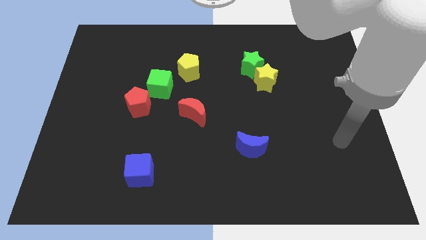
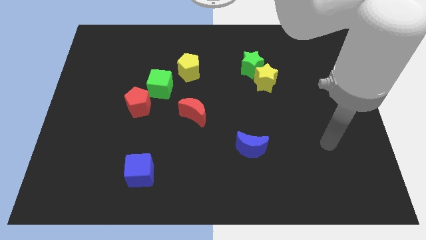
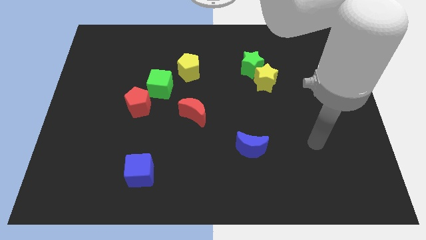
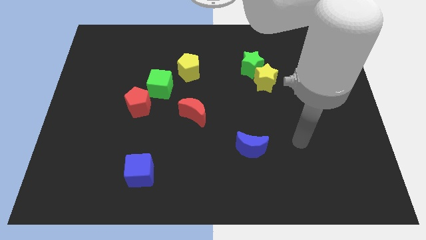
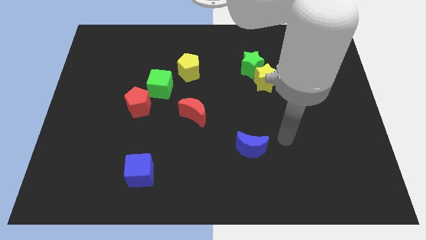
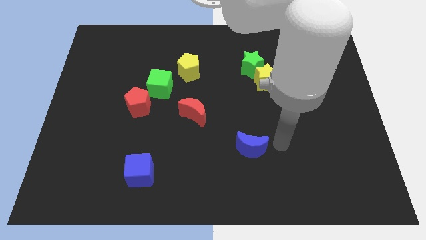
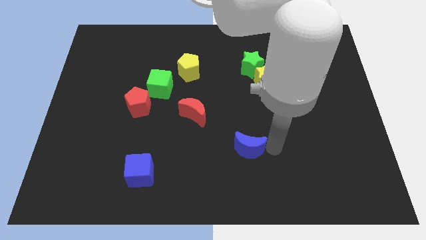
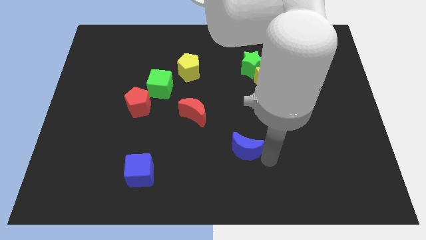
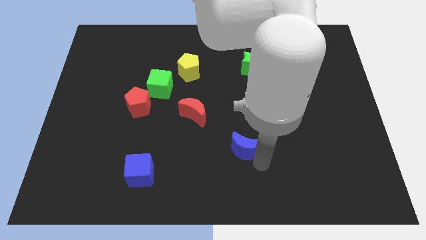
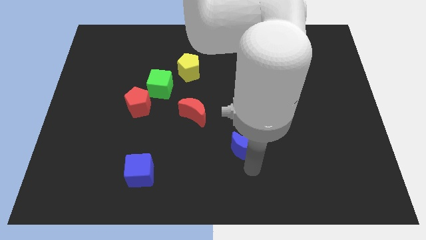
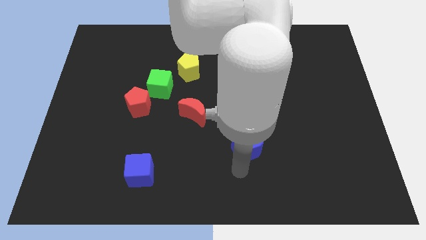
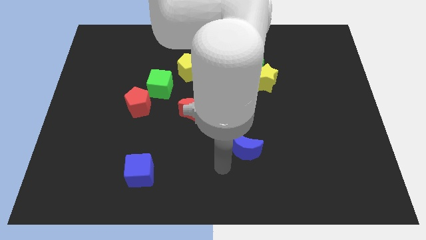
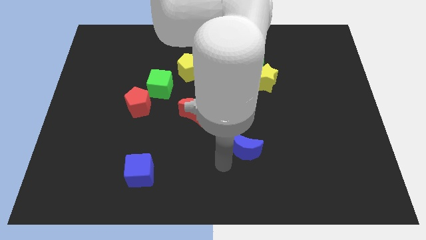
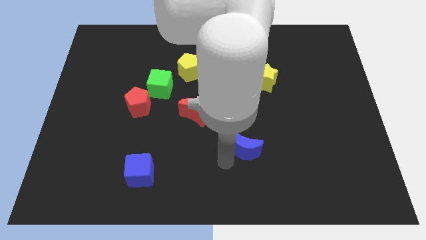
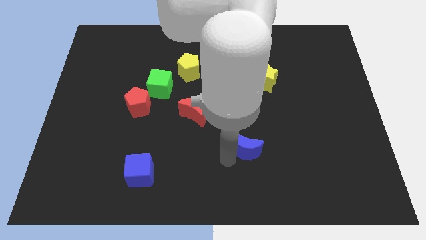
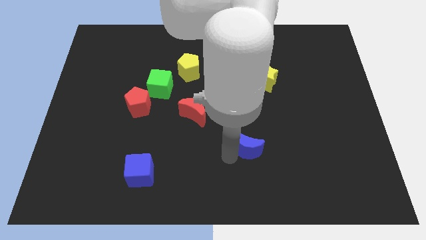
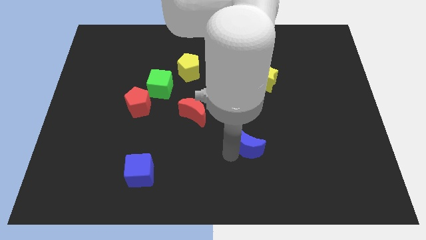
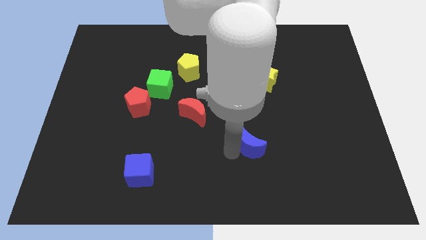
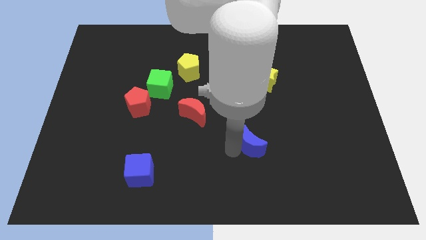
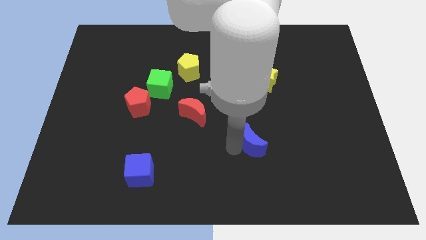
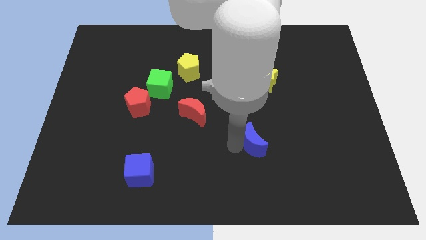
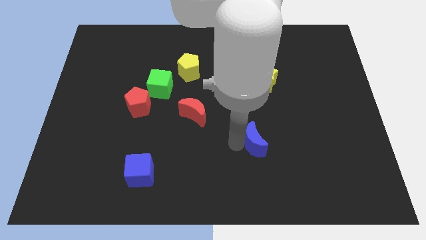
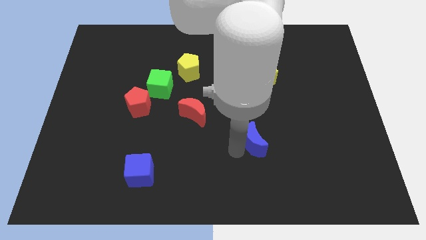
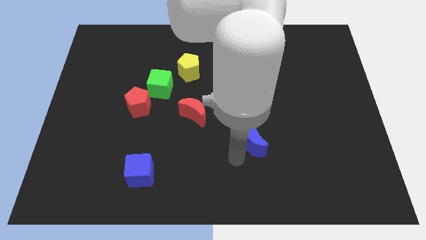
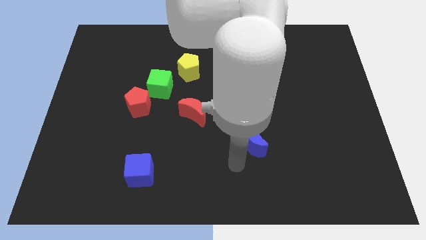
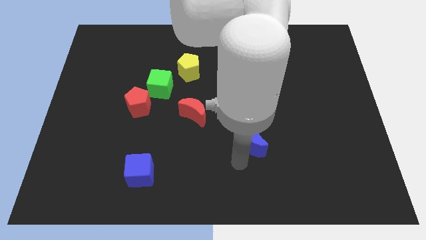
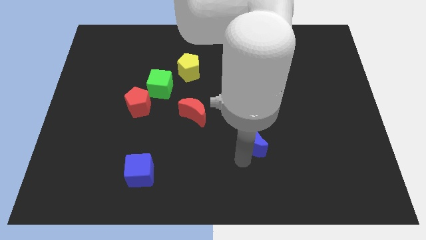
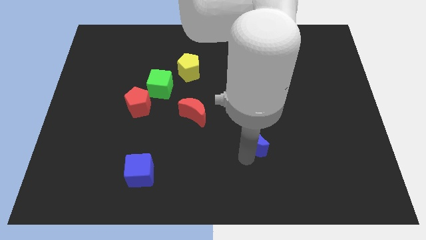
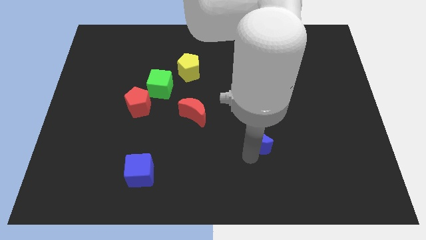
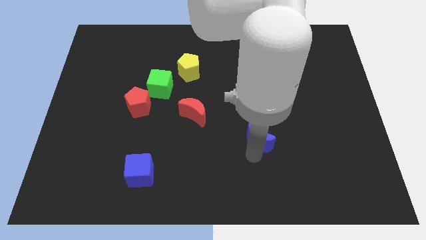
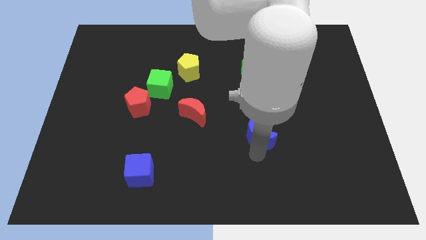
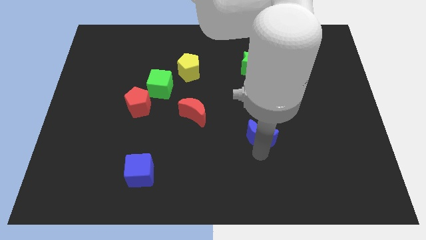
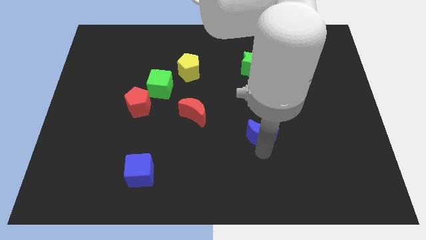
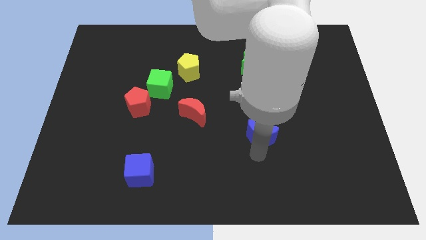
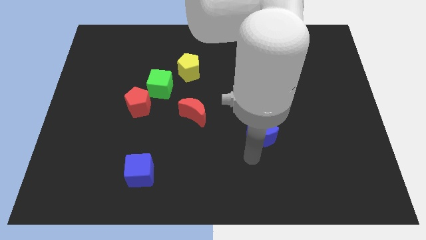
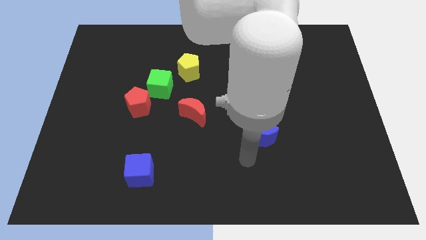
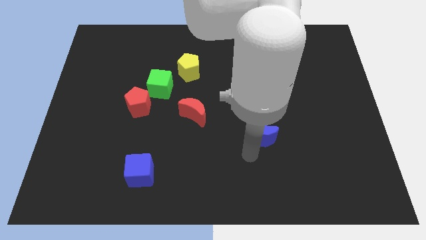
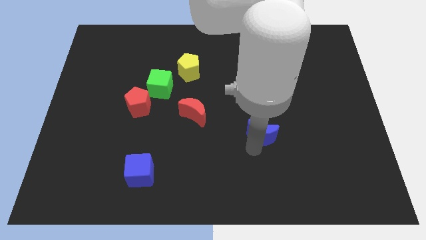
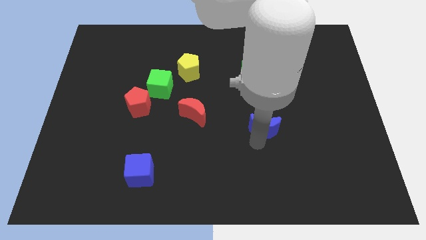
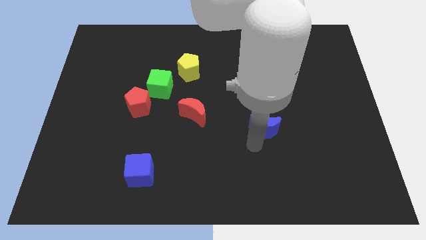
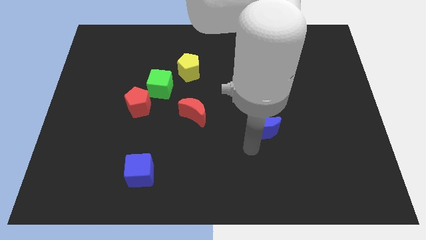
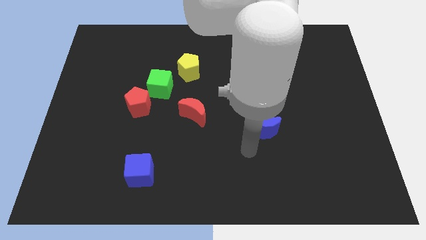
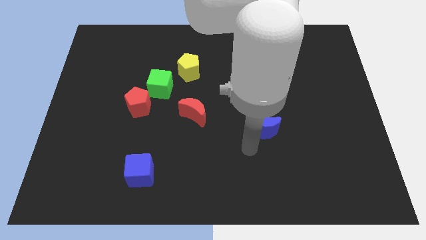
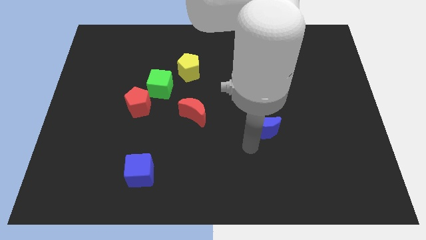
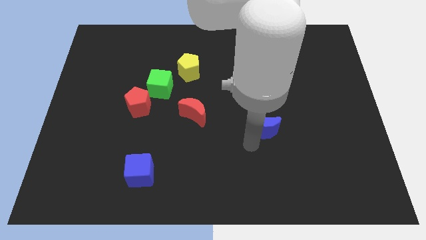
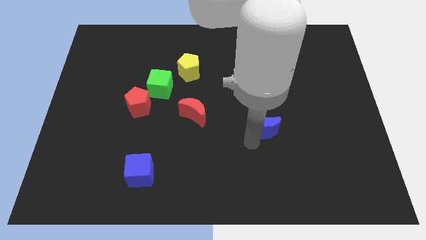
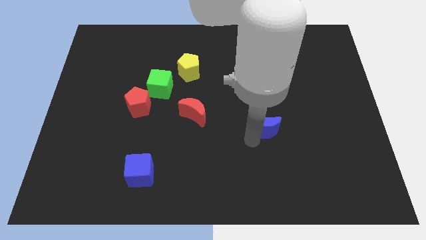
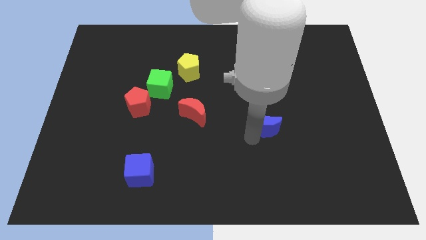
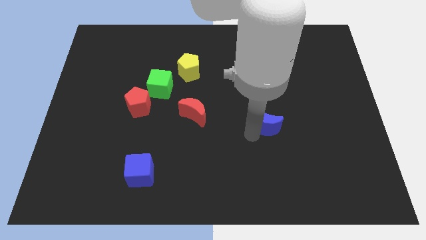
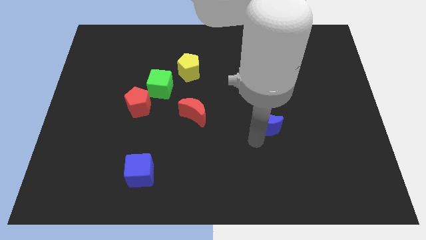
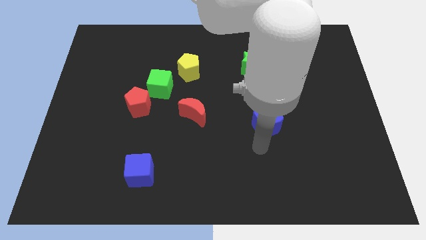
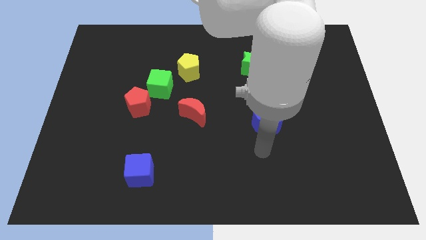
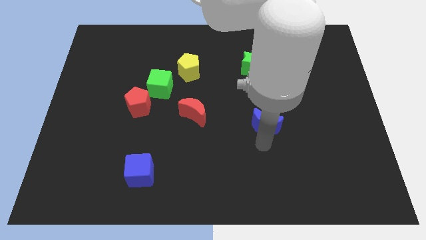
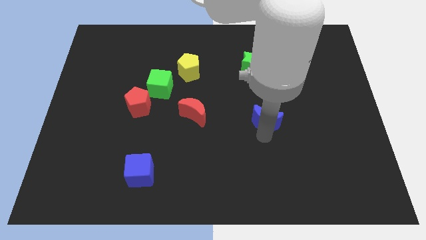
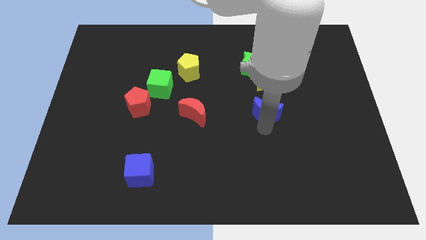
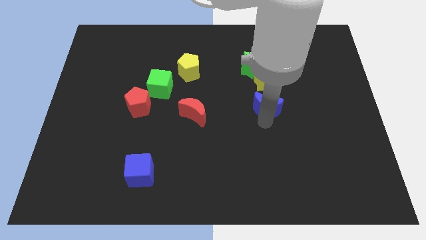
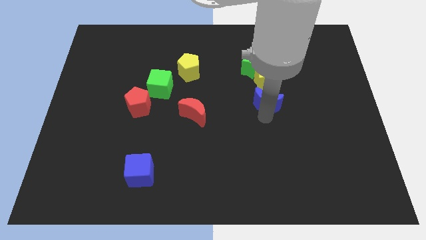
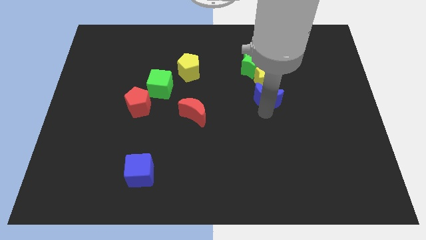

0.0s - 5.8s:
put the blue moon to the yellow star

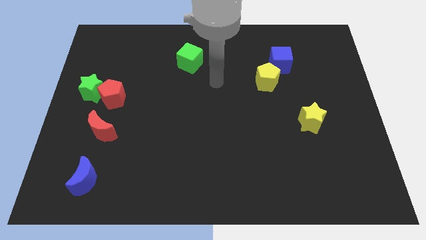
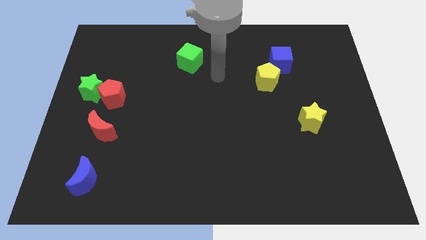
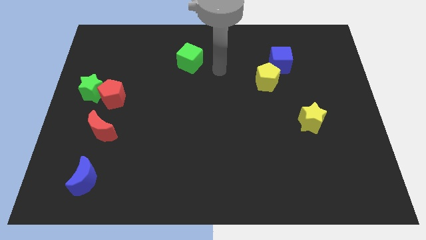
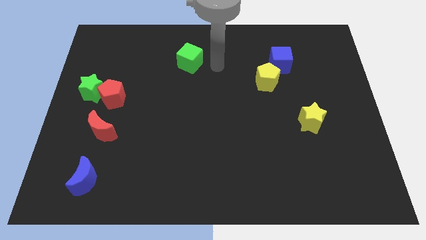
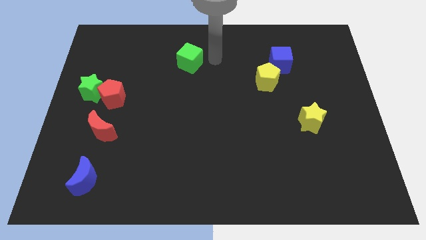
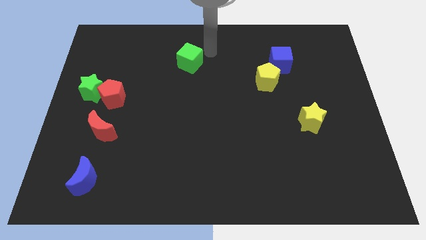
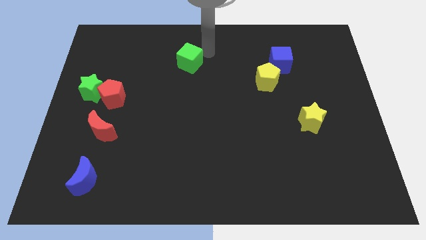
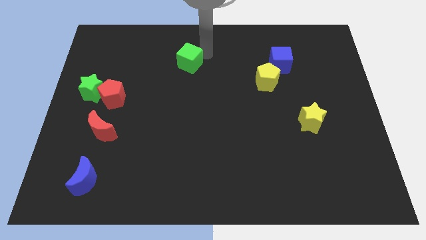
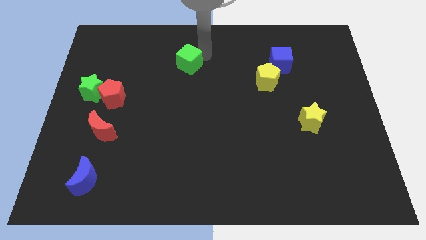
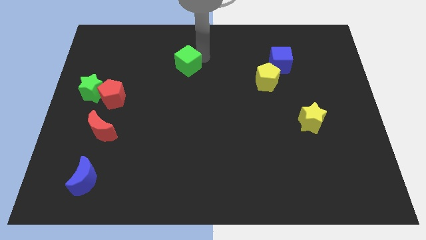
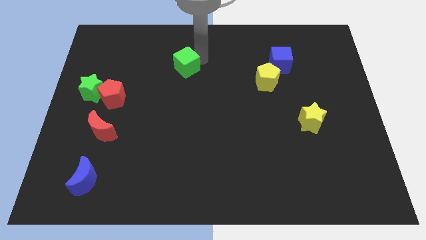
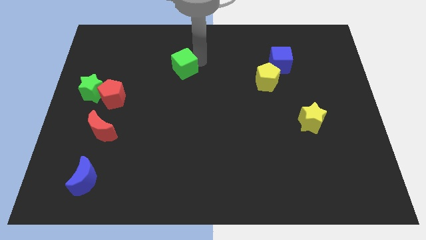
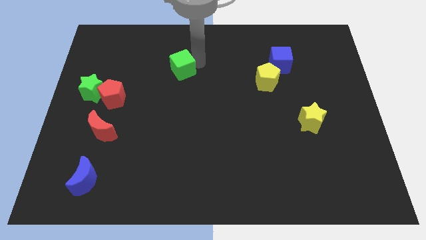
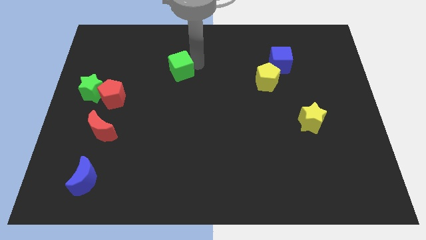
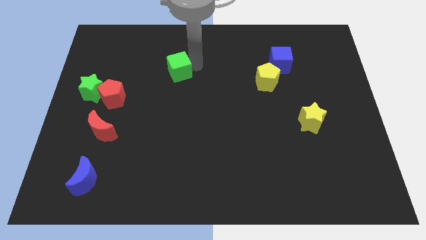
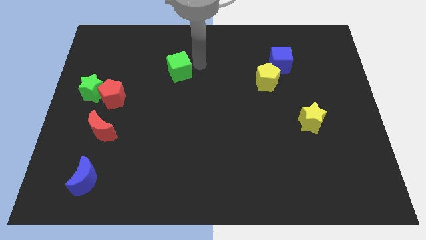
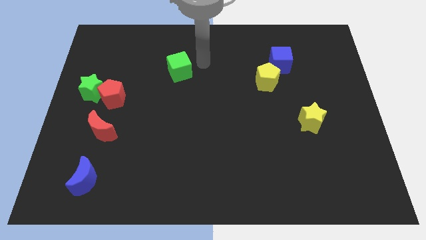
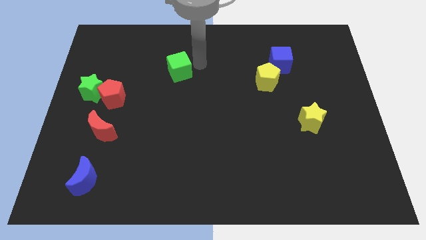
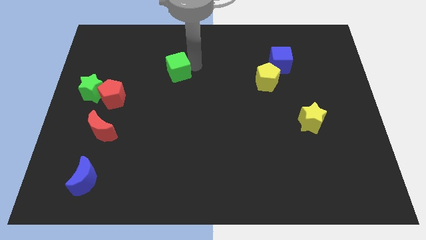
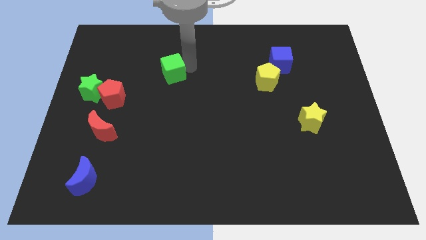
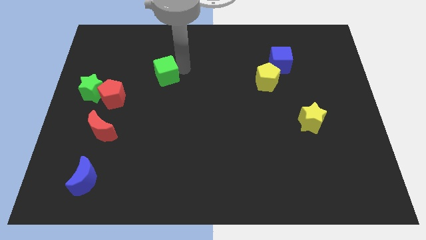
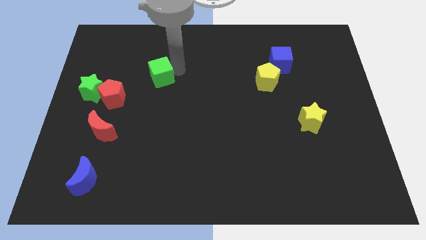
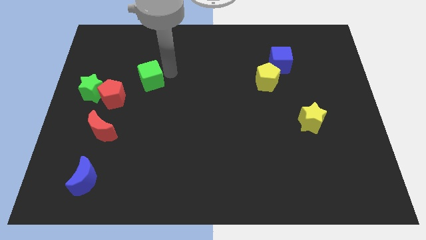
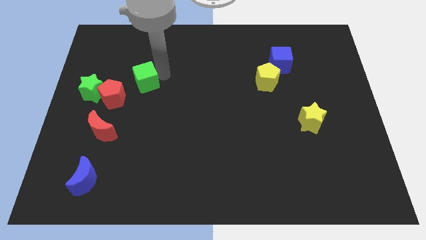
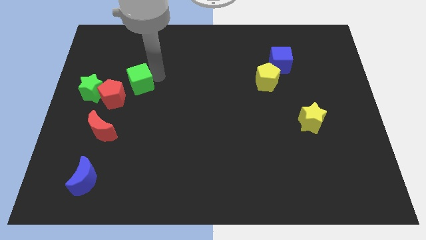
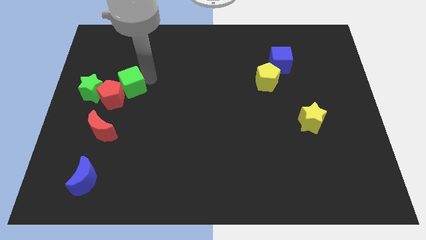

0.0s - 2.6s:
put the green cube close to the red pentagon
